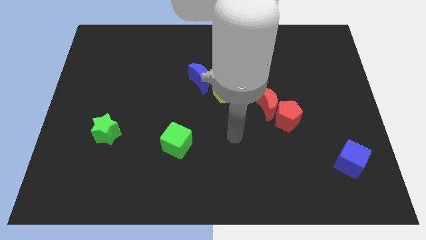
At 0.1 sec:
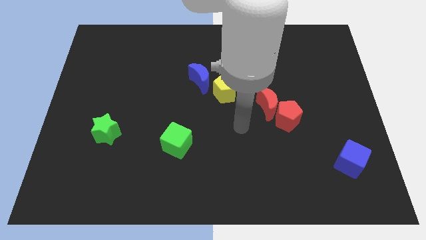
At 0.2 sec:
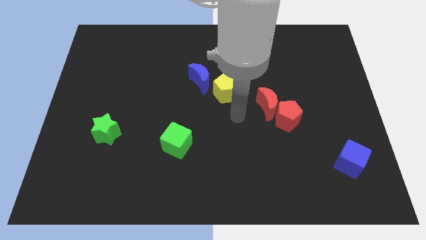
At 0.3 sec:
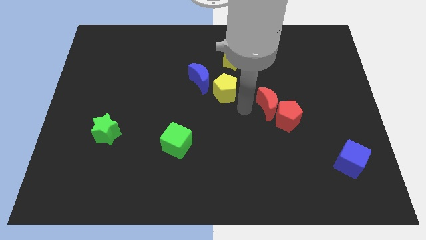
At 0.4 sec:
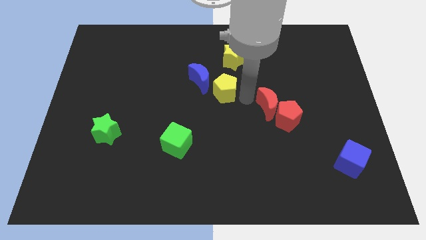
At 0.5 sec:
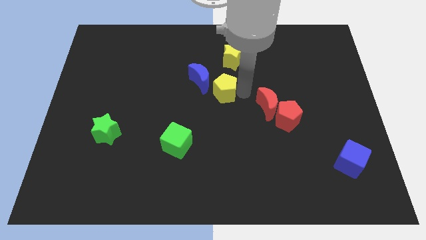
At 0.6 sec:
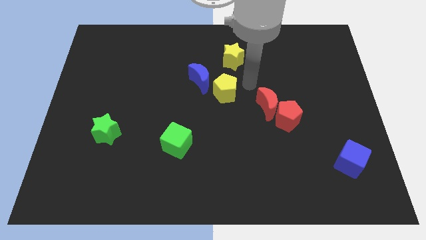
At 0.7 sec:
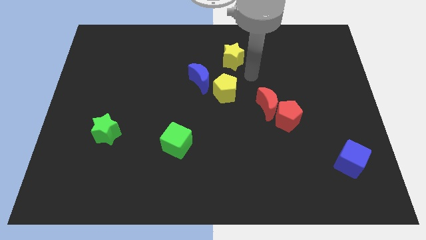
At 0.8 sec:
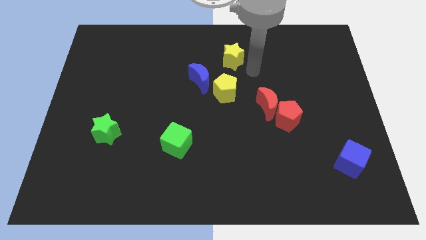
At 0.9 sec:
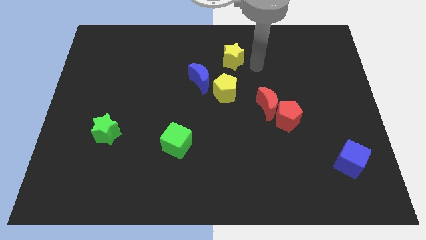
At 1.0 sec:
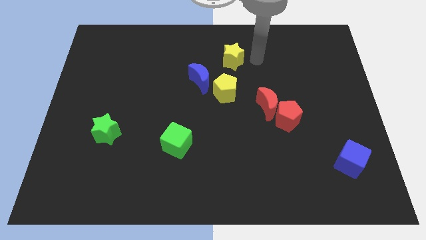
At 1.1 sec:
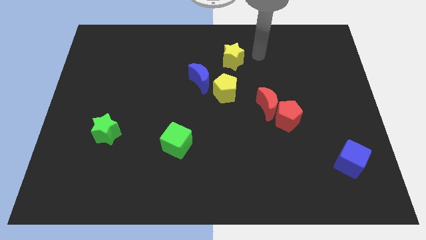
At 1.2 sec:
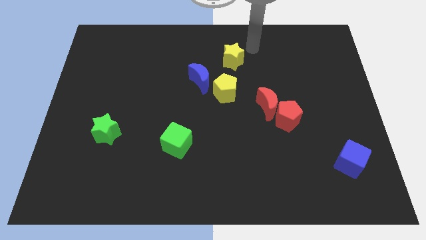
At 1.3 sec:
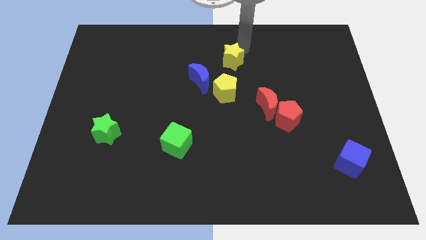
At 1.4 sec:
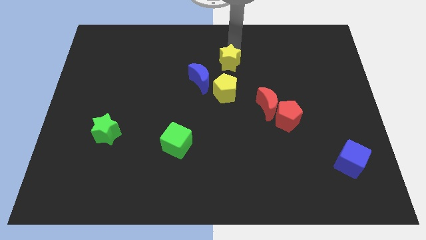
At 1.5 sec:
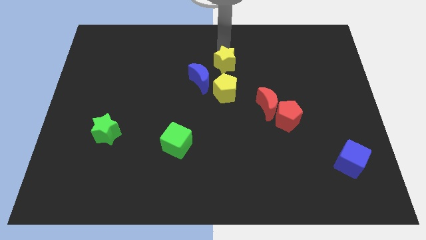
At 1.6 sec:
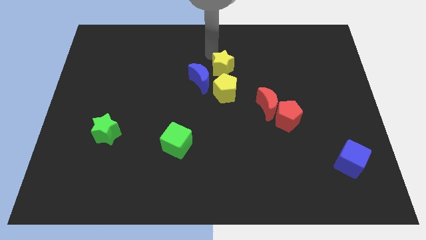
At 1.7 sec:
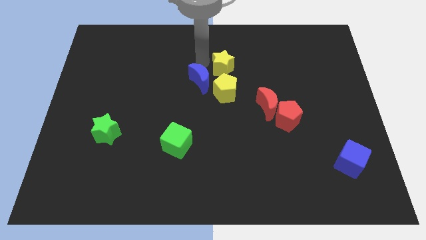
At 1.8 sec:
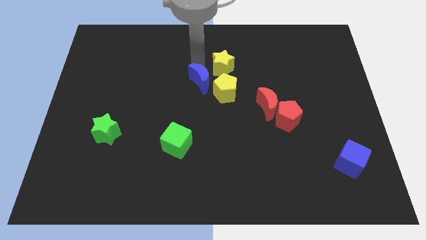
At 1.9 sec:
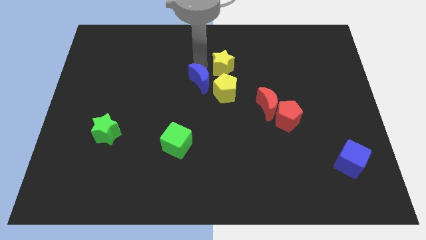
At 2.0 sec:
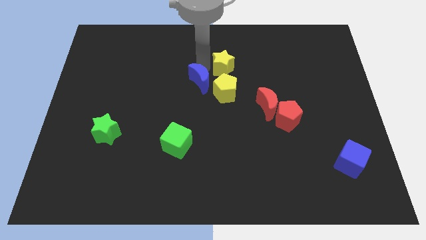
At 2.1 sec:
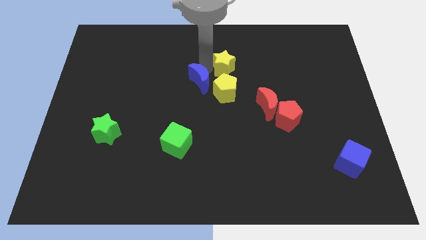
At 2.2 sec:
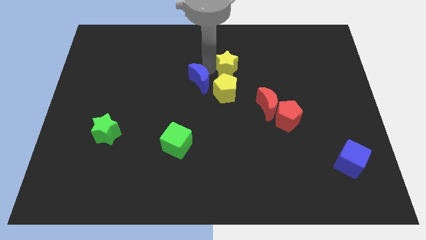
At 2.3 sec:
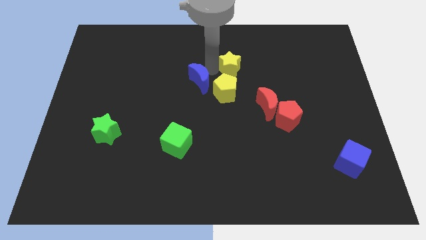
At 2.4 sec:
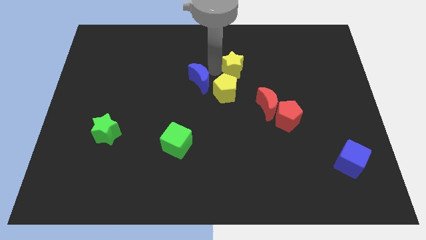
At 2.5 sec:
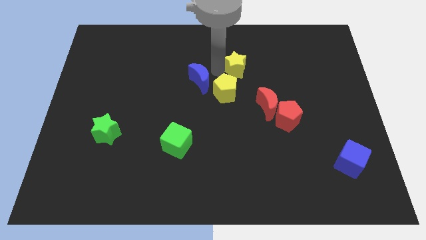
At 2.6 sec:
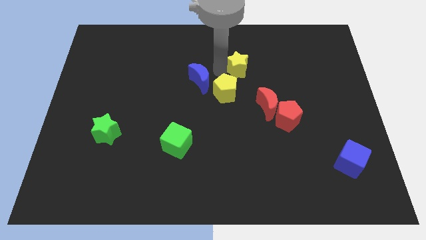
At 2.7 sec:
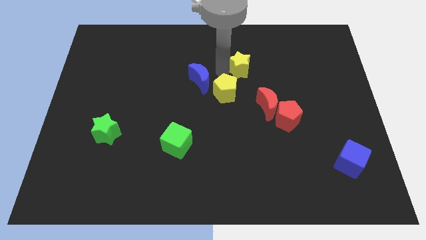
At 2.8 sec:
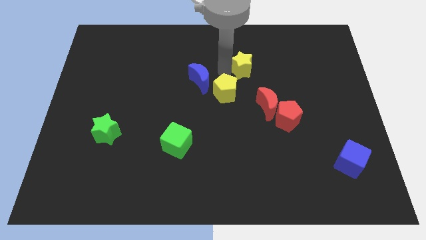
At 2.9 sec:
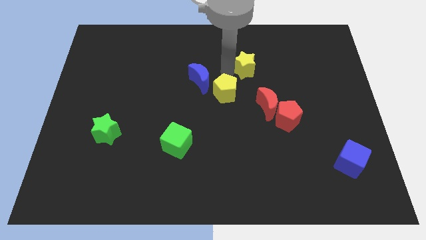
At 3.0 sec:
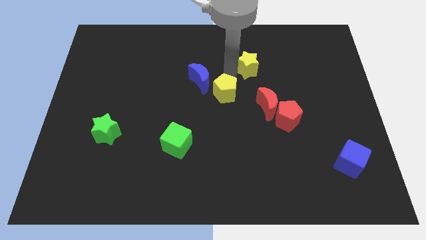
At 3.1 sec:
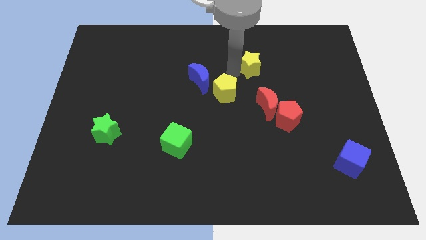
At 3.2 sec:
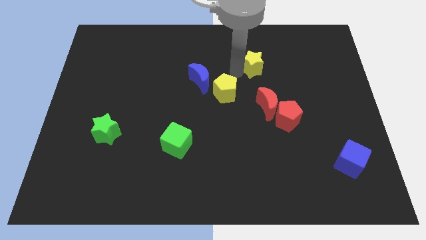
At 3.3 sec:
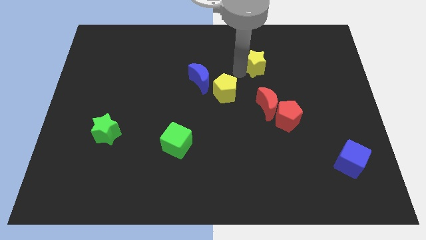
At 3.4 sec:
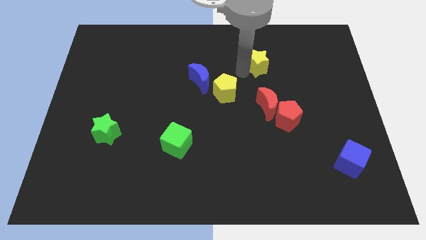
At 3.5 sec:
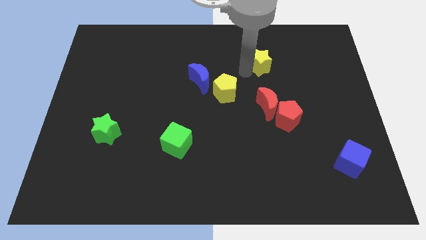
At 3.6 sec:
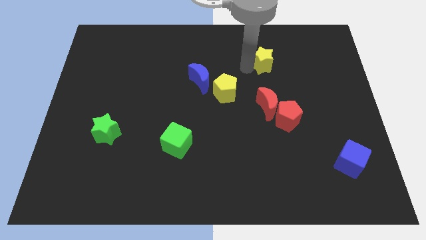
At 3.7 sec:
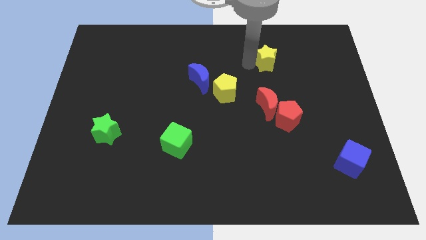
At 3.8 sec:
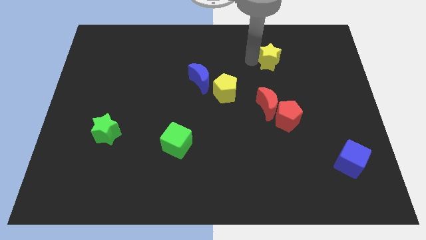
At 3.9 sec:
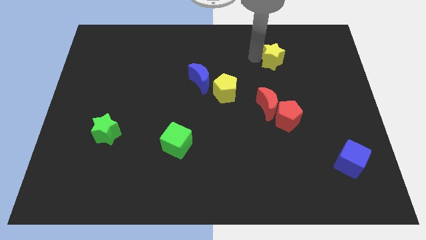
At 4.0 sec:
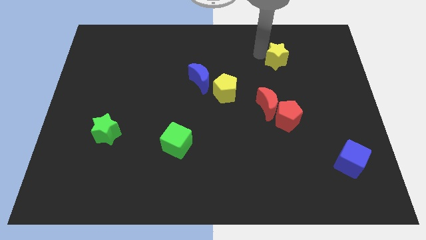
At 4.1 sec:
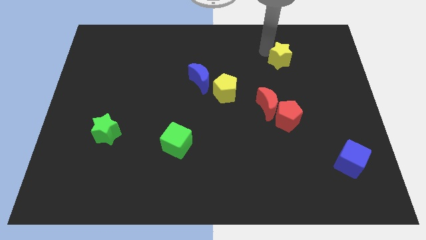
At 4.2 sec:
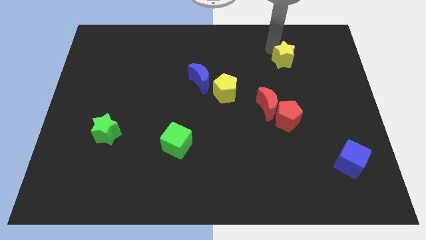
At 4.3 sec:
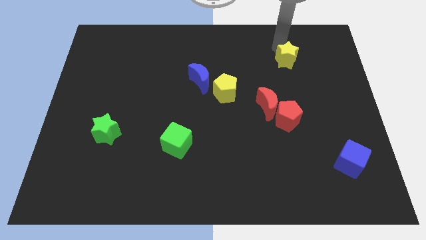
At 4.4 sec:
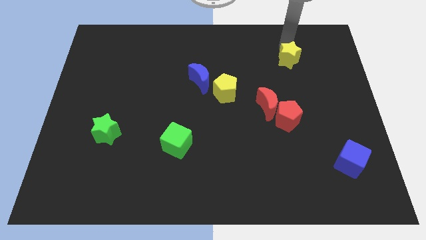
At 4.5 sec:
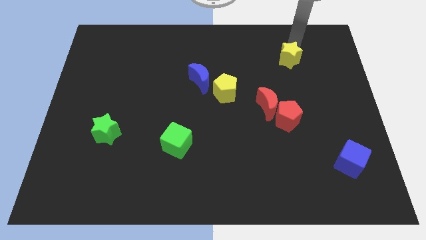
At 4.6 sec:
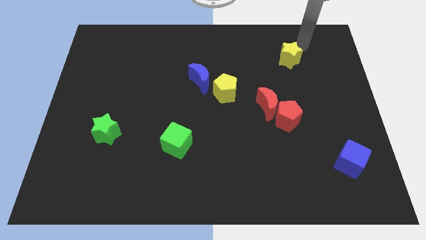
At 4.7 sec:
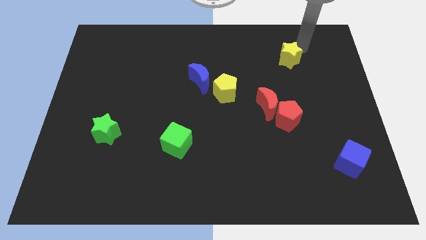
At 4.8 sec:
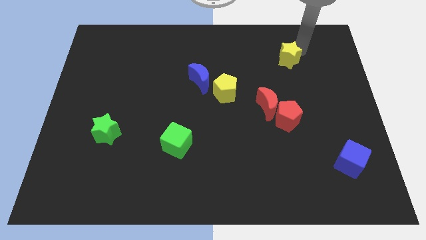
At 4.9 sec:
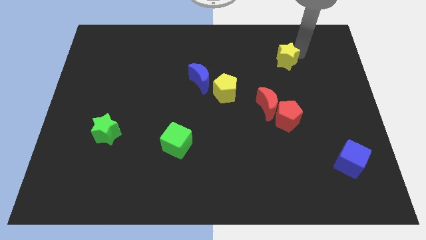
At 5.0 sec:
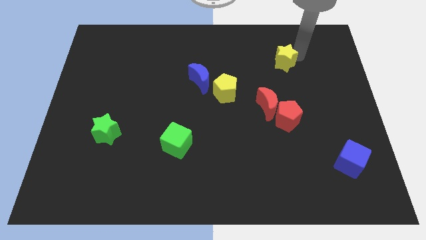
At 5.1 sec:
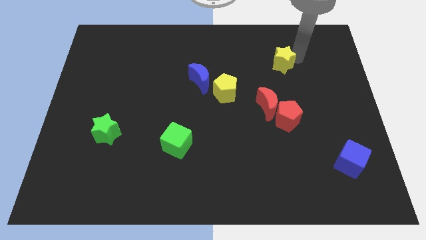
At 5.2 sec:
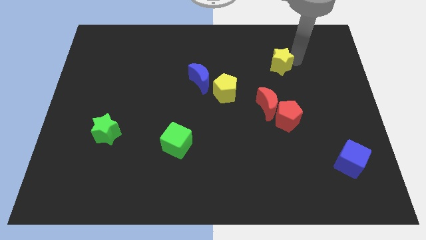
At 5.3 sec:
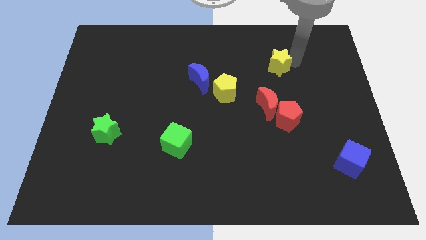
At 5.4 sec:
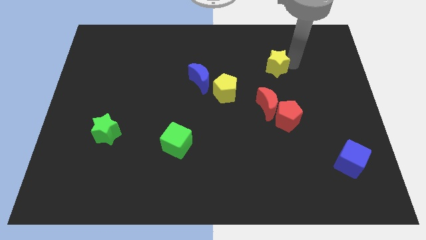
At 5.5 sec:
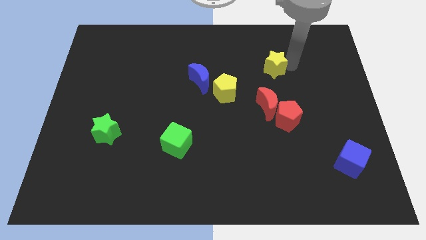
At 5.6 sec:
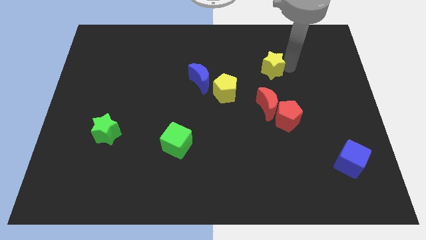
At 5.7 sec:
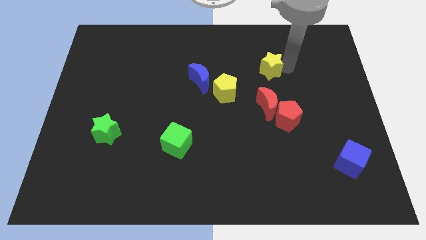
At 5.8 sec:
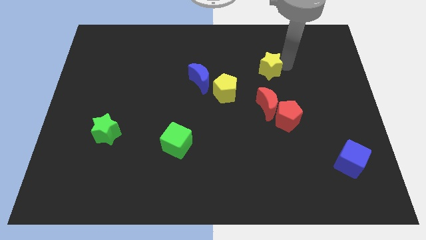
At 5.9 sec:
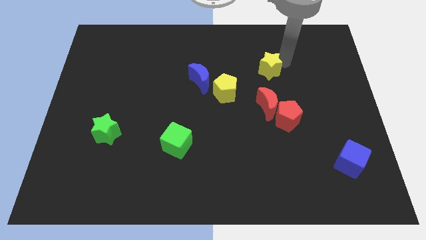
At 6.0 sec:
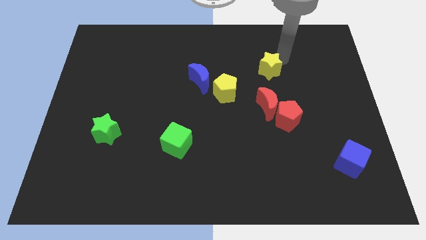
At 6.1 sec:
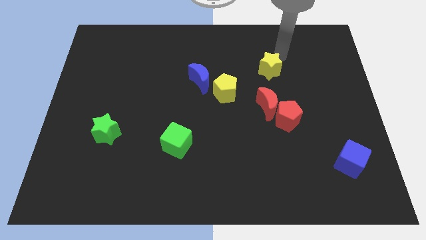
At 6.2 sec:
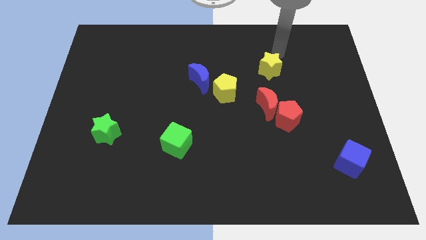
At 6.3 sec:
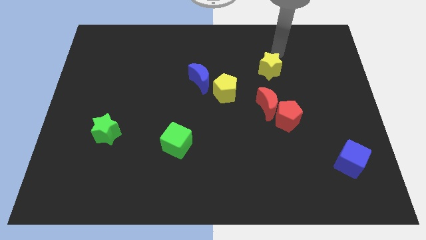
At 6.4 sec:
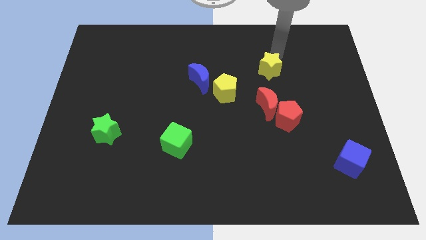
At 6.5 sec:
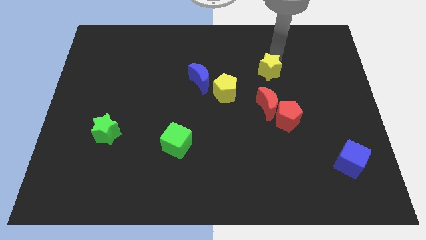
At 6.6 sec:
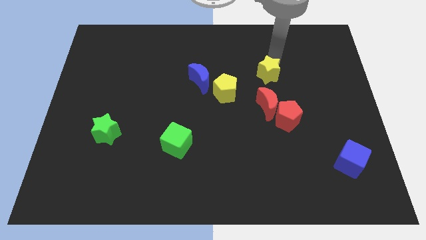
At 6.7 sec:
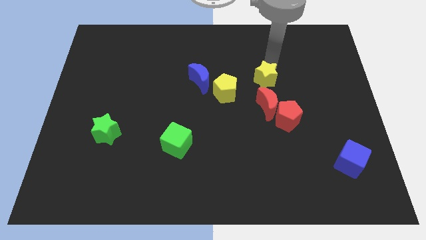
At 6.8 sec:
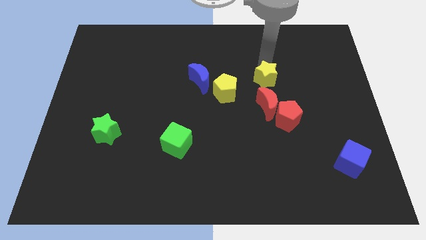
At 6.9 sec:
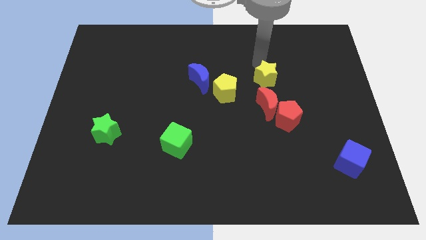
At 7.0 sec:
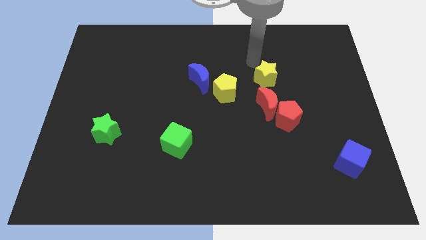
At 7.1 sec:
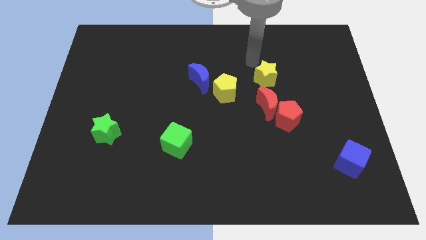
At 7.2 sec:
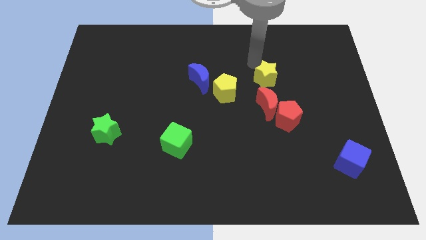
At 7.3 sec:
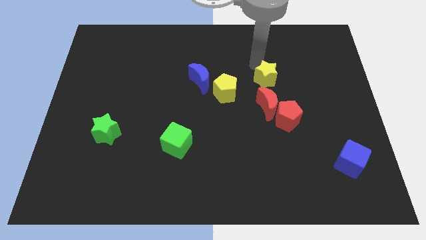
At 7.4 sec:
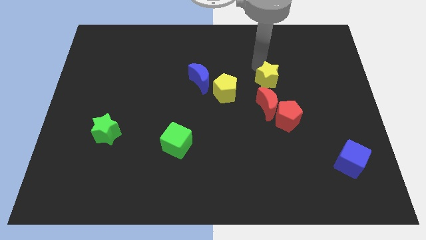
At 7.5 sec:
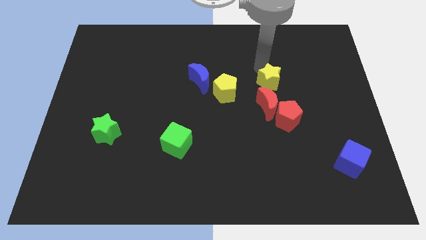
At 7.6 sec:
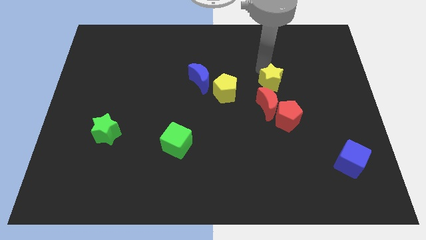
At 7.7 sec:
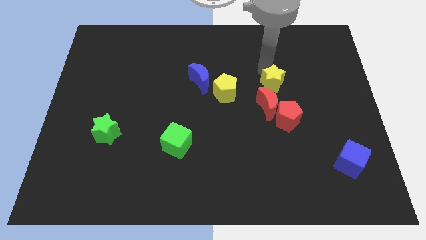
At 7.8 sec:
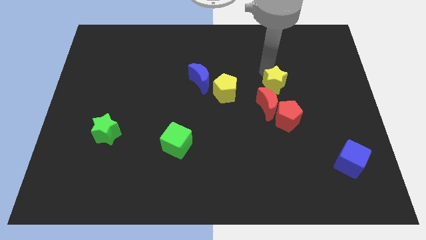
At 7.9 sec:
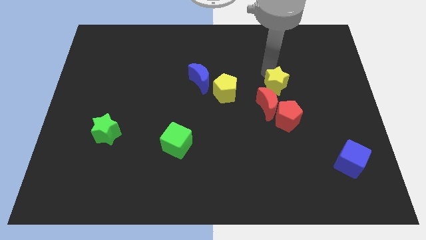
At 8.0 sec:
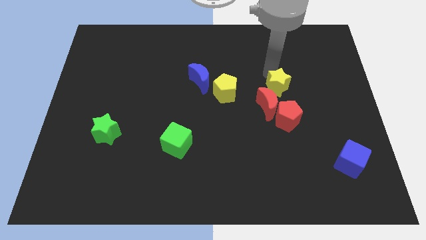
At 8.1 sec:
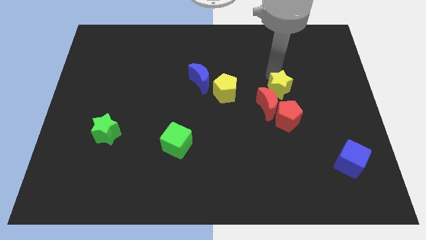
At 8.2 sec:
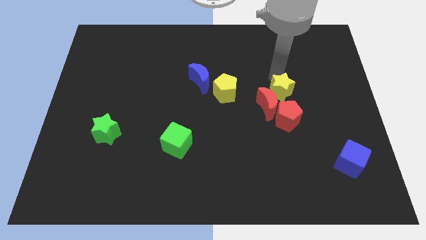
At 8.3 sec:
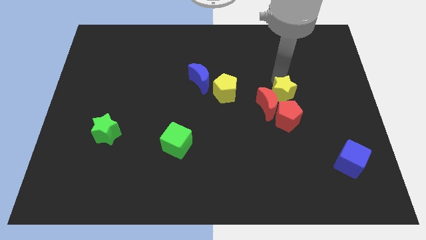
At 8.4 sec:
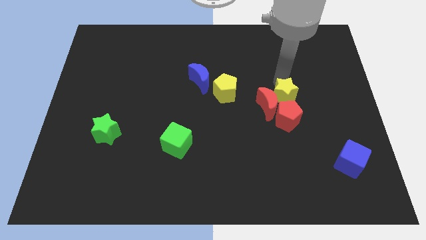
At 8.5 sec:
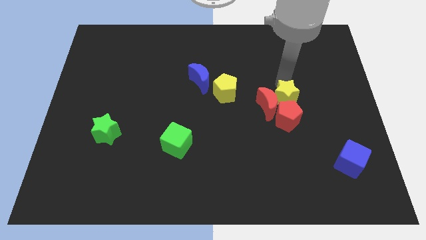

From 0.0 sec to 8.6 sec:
push the yellow star towards the red pentagon
